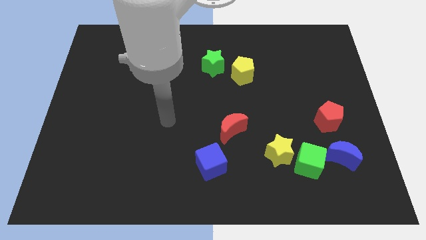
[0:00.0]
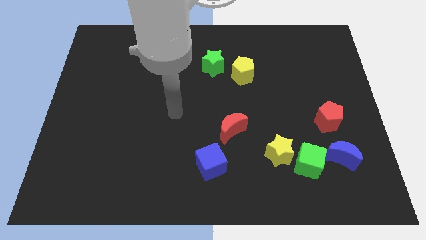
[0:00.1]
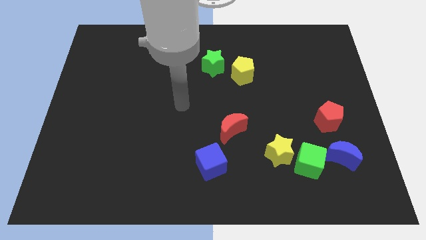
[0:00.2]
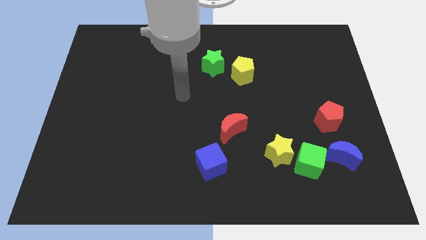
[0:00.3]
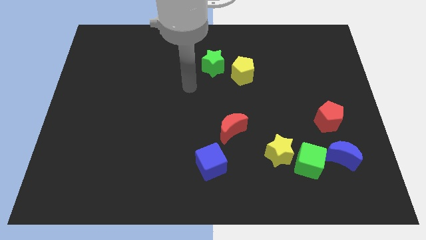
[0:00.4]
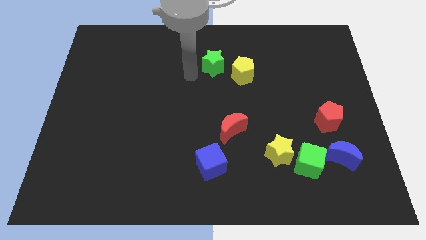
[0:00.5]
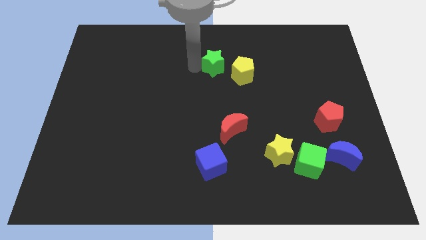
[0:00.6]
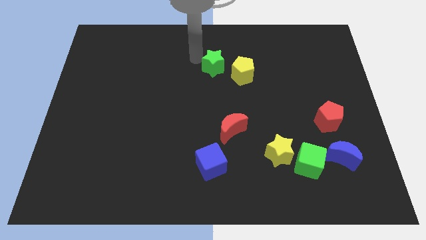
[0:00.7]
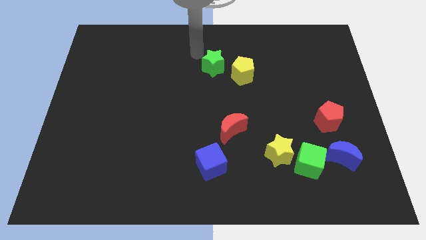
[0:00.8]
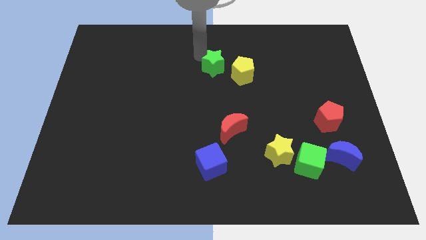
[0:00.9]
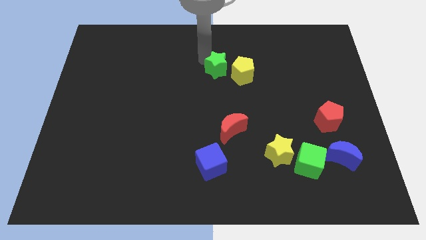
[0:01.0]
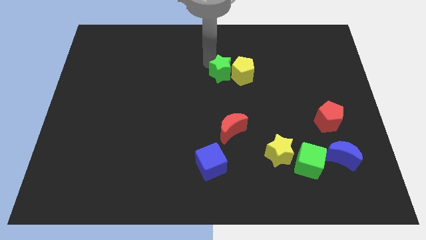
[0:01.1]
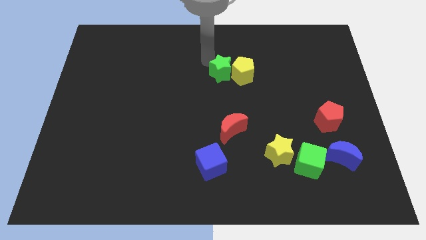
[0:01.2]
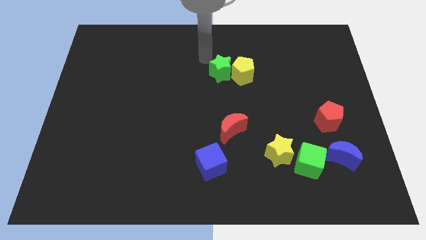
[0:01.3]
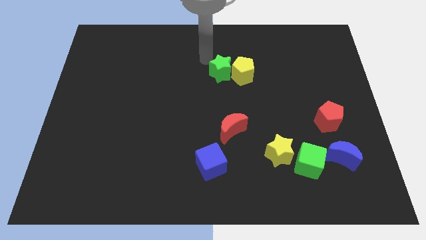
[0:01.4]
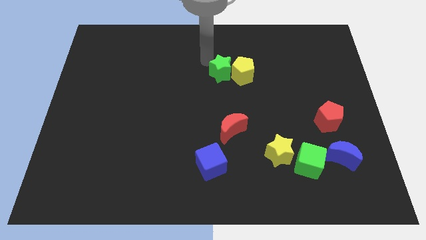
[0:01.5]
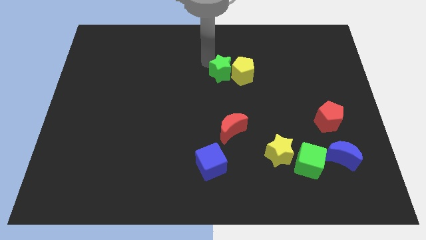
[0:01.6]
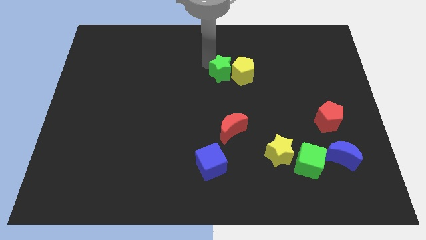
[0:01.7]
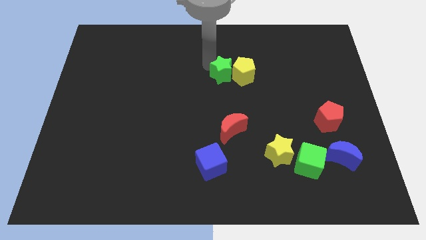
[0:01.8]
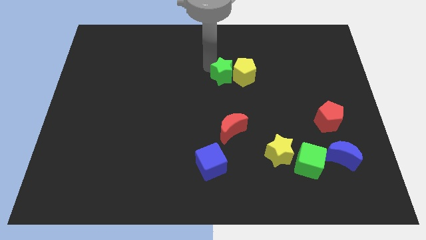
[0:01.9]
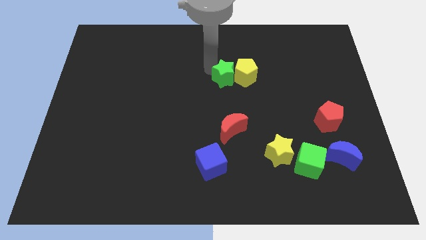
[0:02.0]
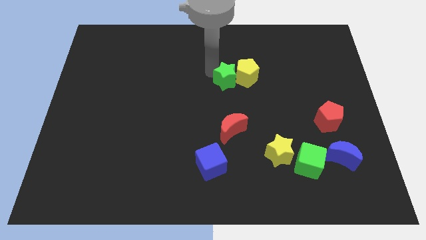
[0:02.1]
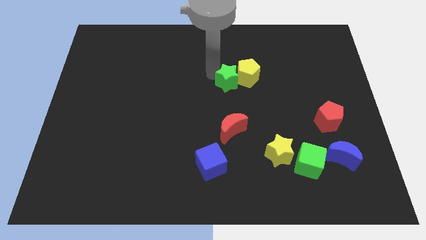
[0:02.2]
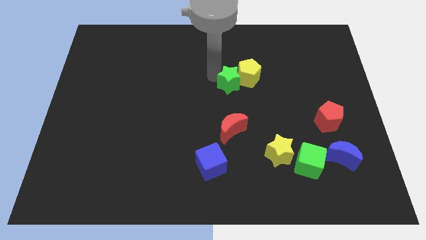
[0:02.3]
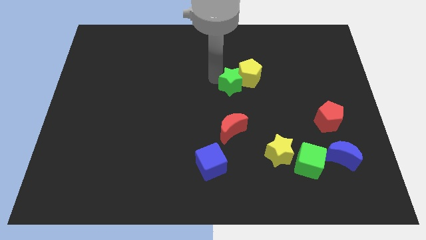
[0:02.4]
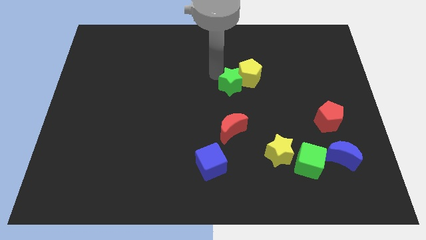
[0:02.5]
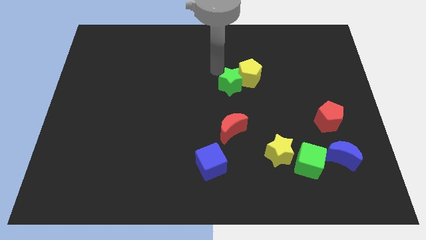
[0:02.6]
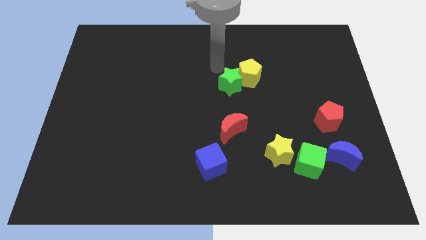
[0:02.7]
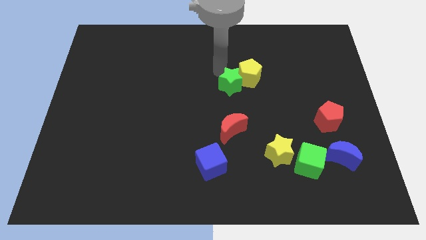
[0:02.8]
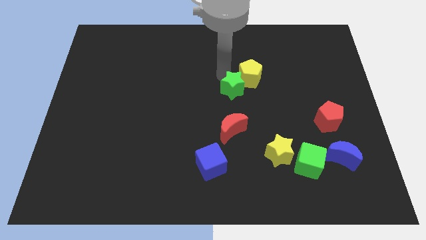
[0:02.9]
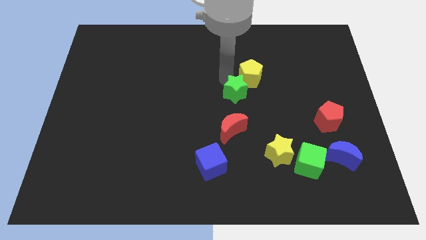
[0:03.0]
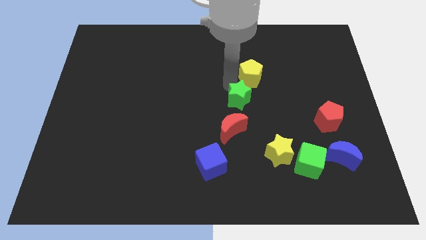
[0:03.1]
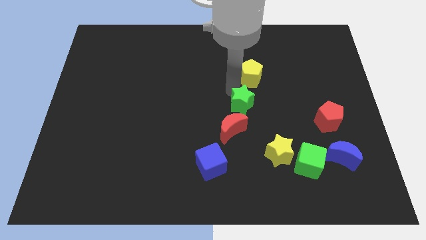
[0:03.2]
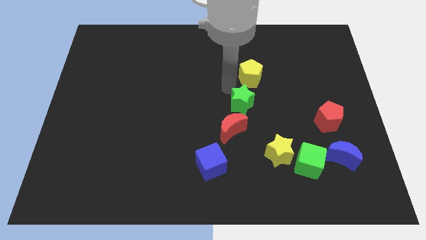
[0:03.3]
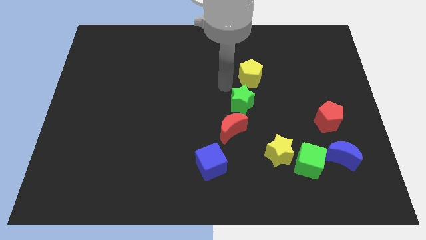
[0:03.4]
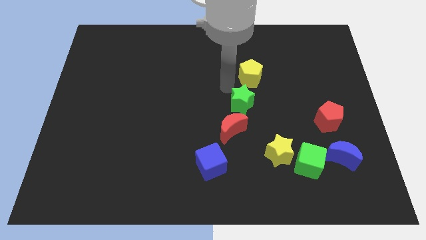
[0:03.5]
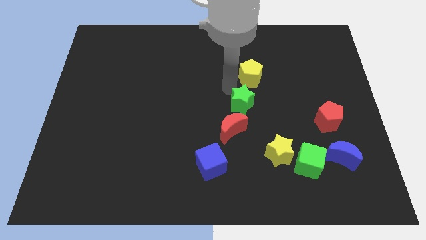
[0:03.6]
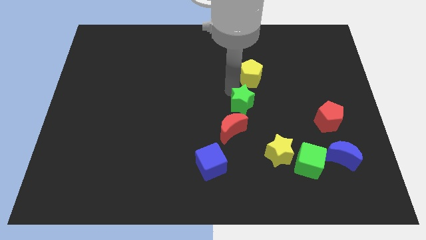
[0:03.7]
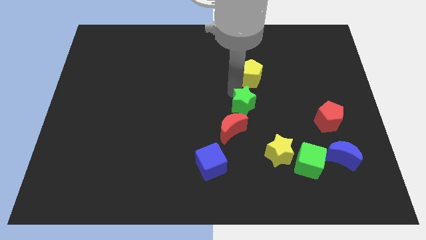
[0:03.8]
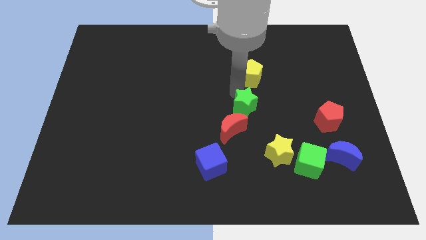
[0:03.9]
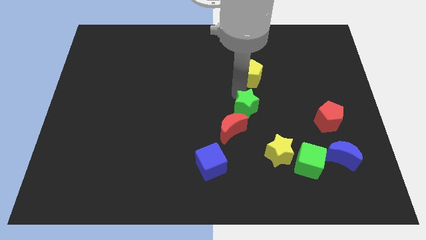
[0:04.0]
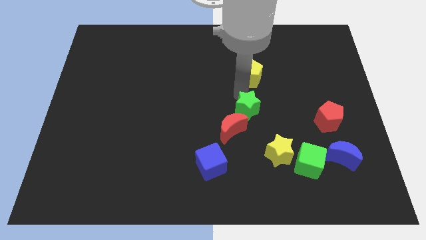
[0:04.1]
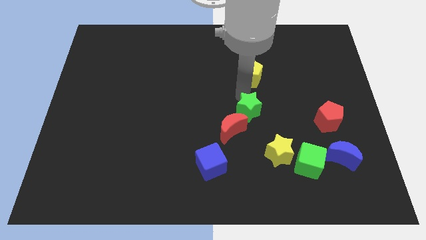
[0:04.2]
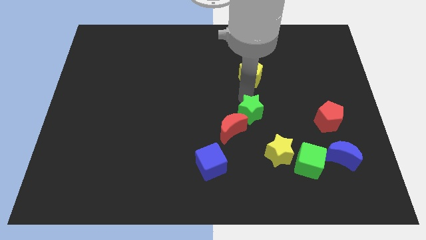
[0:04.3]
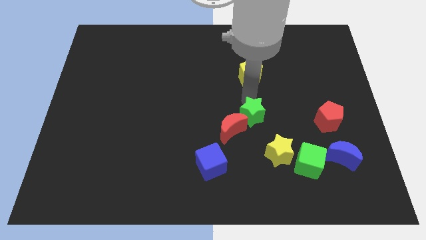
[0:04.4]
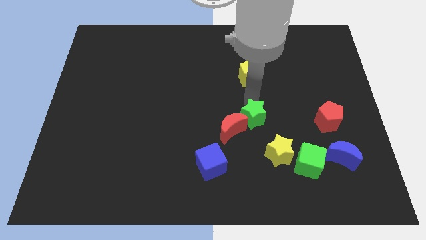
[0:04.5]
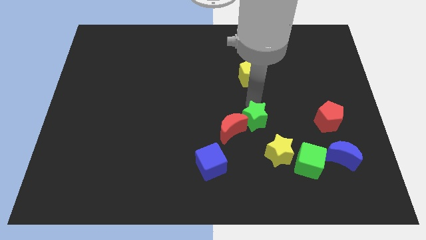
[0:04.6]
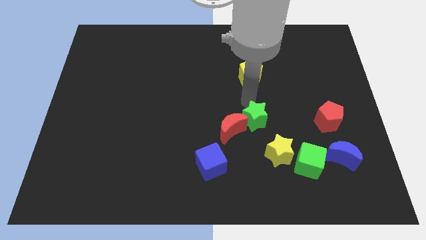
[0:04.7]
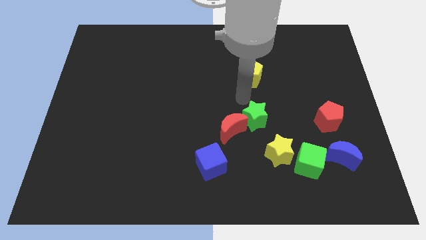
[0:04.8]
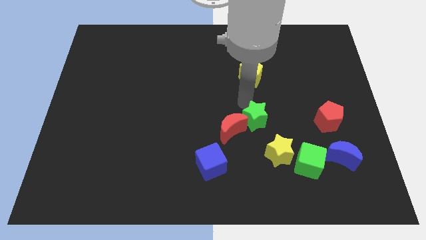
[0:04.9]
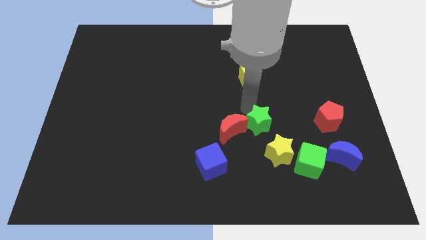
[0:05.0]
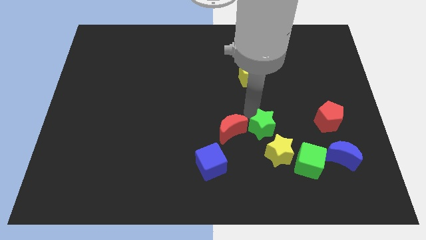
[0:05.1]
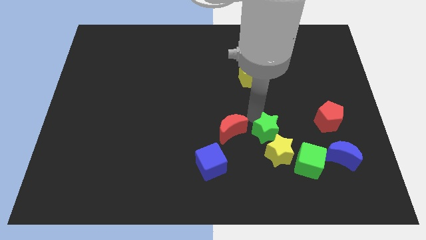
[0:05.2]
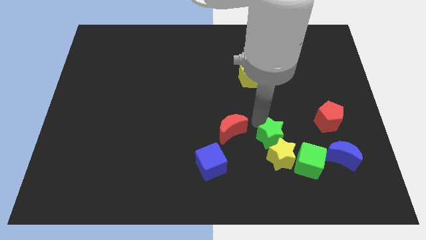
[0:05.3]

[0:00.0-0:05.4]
slide the green star to the yellow star

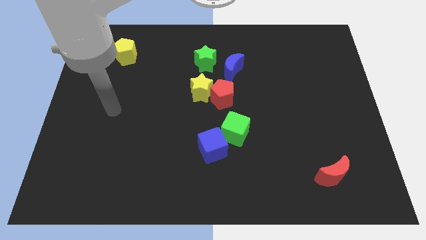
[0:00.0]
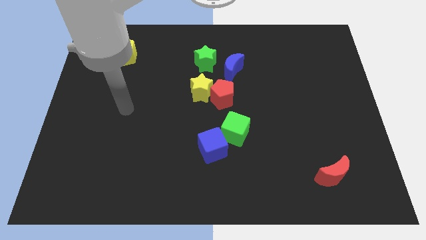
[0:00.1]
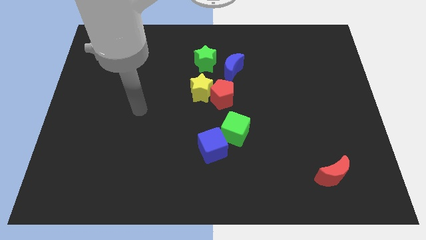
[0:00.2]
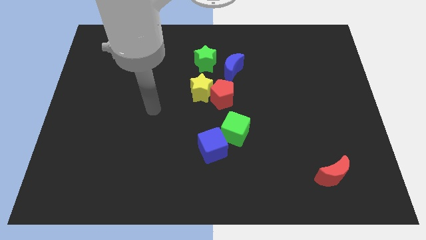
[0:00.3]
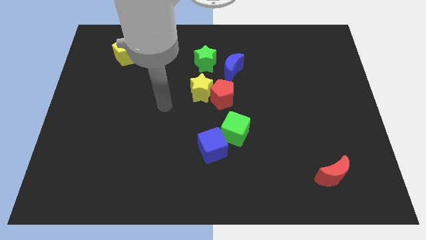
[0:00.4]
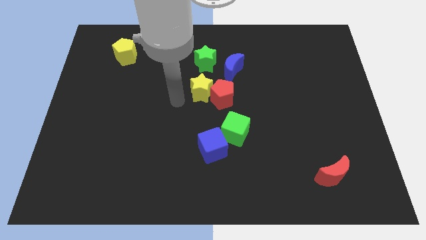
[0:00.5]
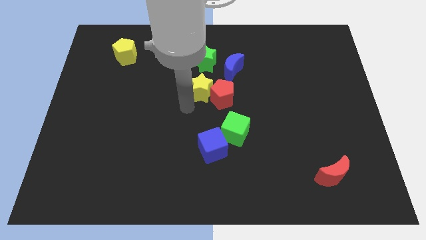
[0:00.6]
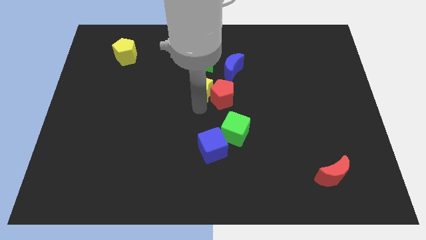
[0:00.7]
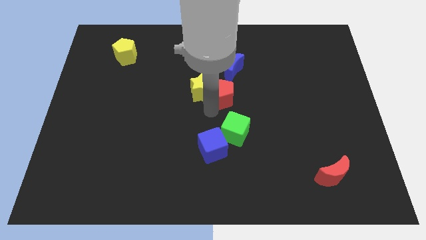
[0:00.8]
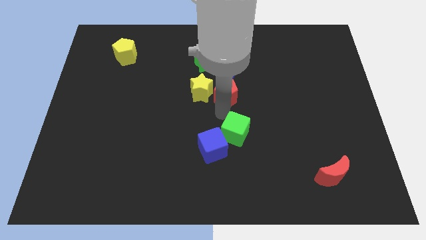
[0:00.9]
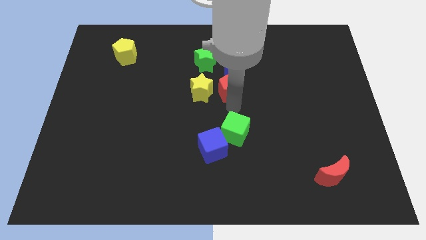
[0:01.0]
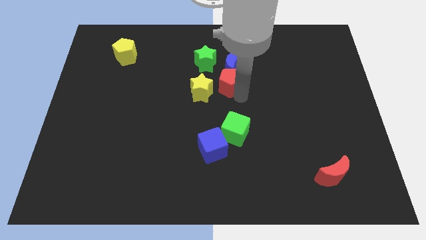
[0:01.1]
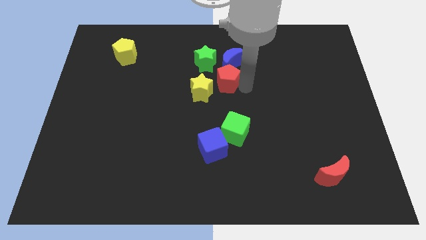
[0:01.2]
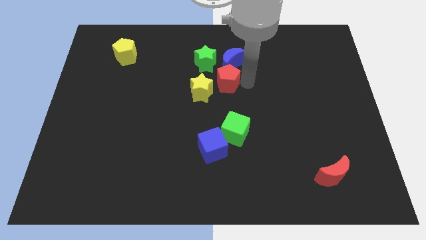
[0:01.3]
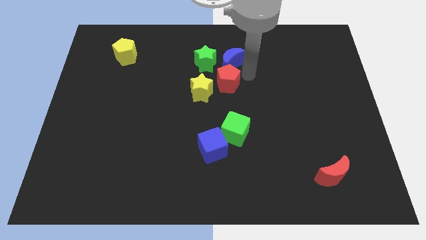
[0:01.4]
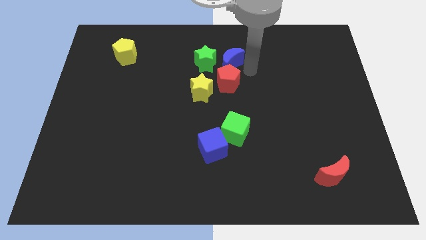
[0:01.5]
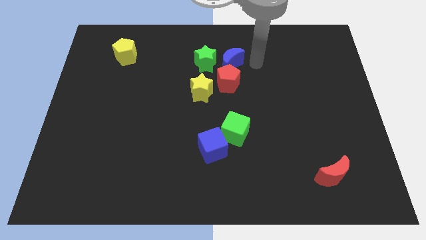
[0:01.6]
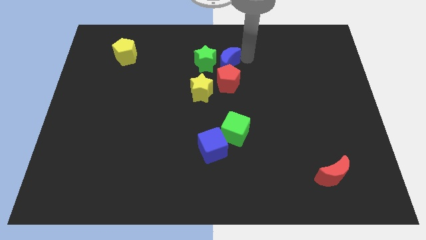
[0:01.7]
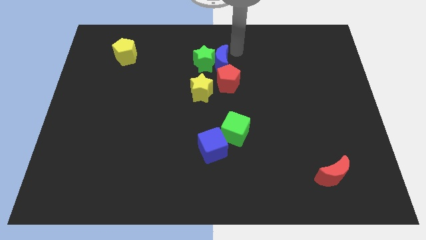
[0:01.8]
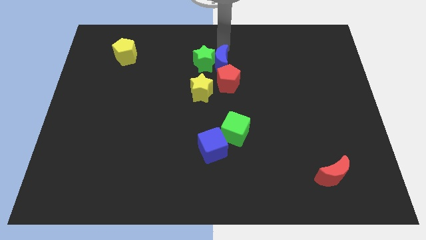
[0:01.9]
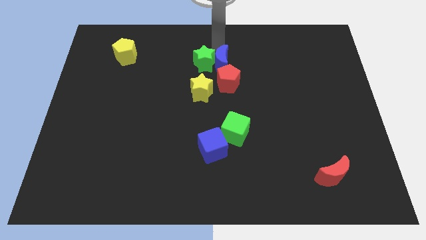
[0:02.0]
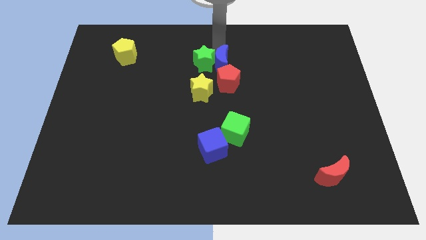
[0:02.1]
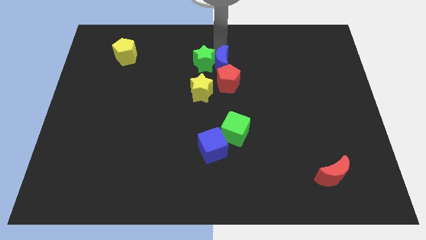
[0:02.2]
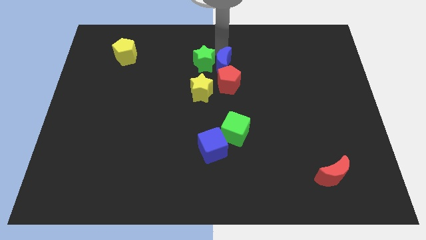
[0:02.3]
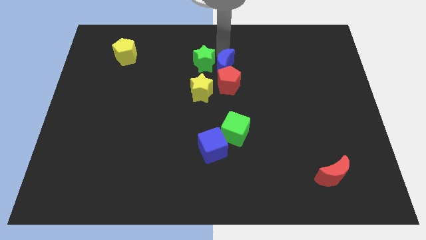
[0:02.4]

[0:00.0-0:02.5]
put the blue moon to the red pentagon
